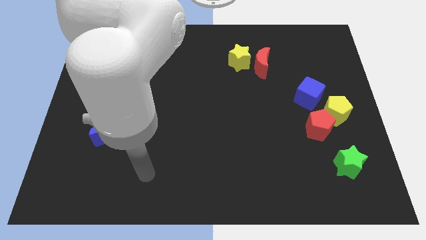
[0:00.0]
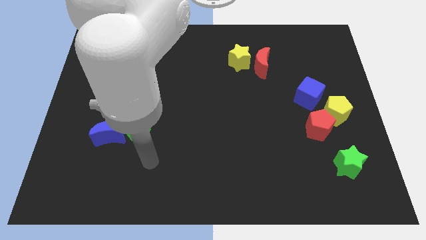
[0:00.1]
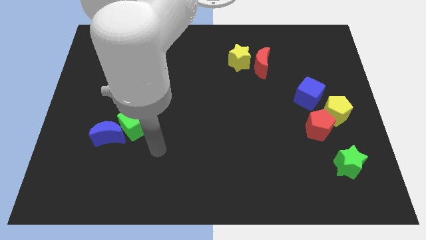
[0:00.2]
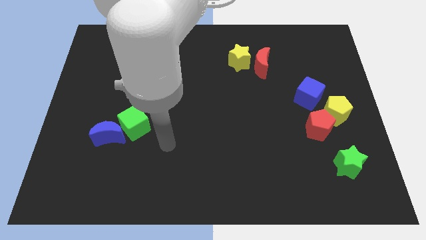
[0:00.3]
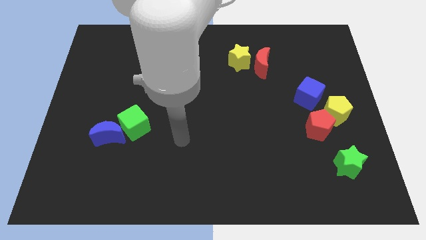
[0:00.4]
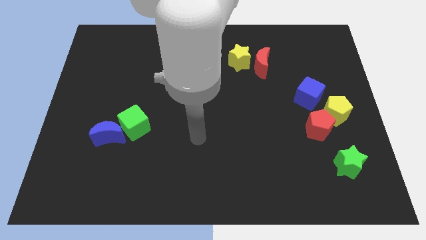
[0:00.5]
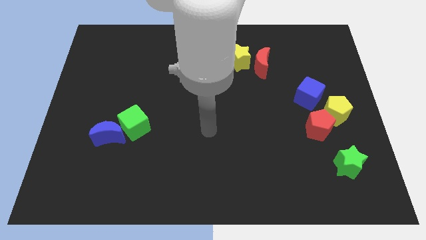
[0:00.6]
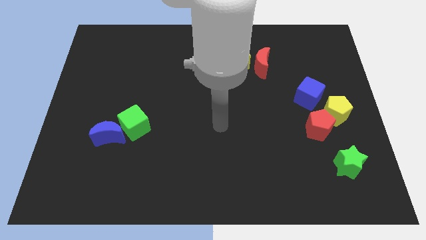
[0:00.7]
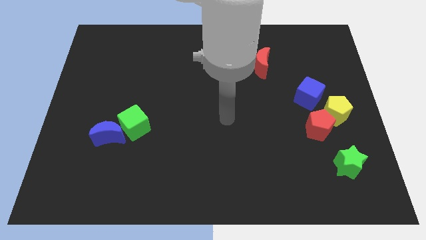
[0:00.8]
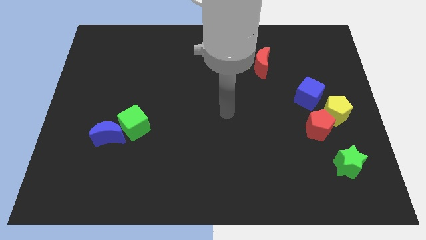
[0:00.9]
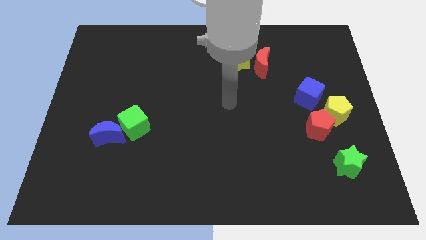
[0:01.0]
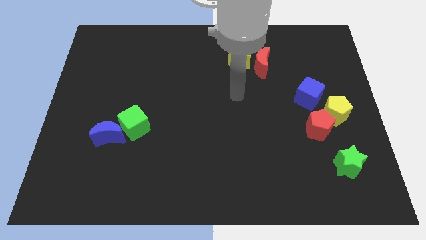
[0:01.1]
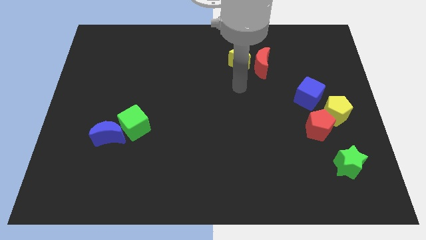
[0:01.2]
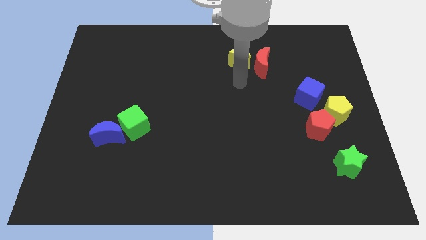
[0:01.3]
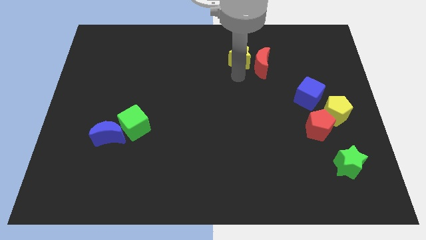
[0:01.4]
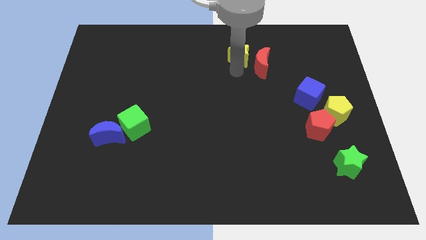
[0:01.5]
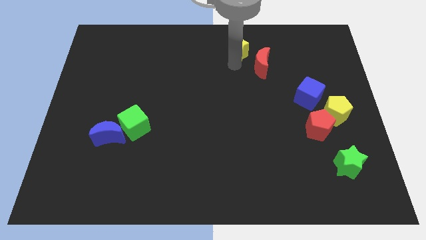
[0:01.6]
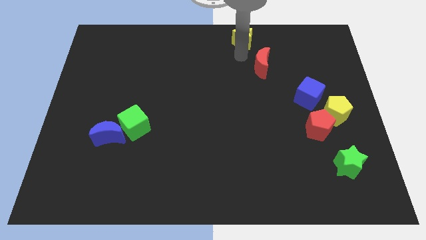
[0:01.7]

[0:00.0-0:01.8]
pull the red moon apart from the yellow star

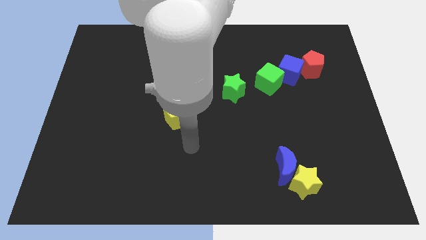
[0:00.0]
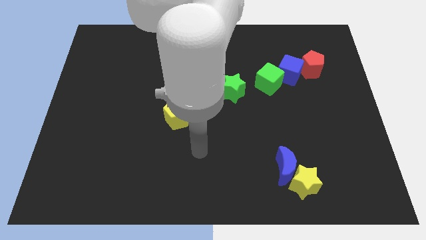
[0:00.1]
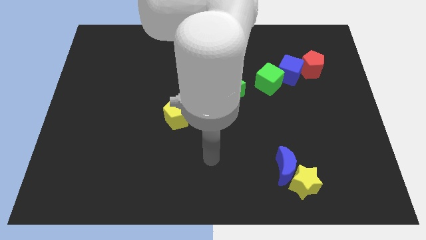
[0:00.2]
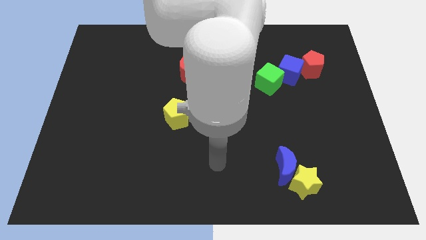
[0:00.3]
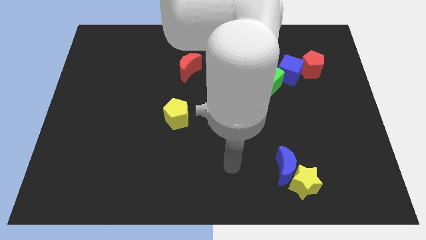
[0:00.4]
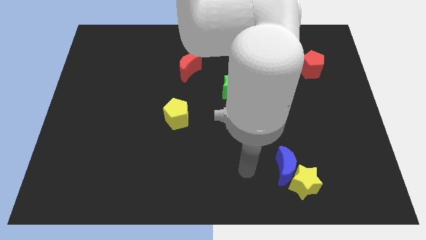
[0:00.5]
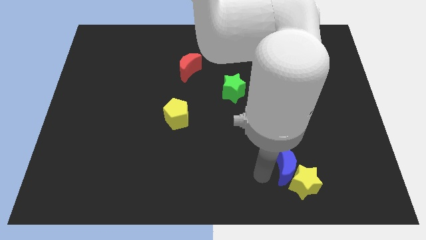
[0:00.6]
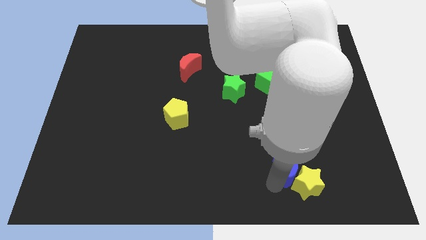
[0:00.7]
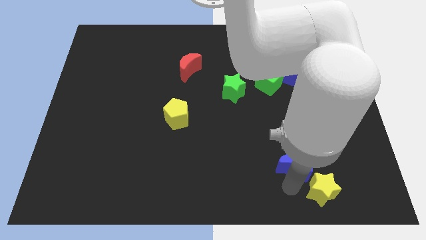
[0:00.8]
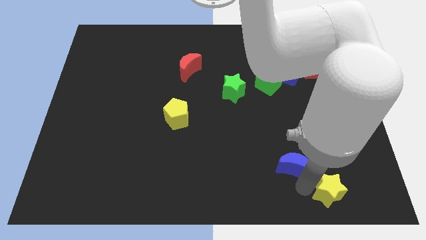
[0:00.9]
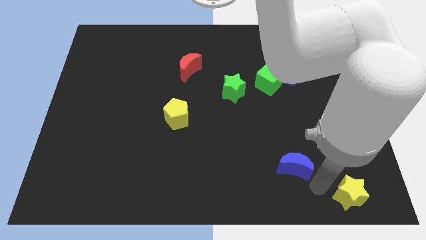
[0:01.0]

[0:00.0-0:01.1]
separate the blue moon from the yellow star

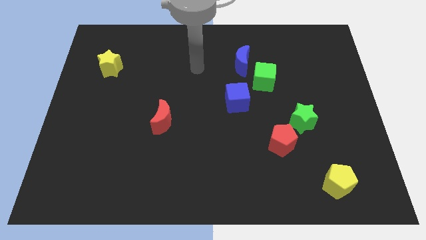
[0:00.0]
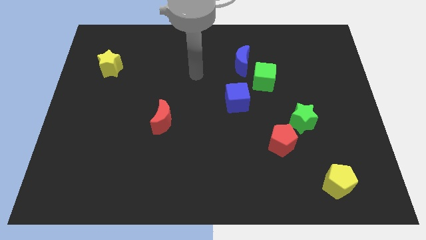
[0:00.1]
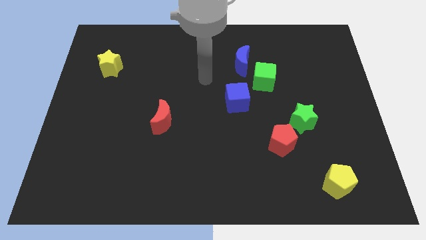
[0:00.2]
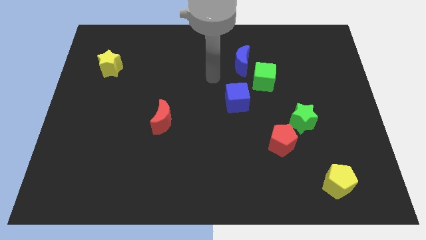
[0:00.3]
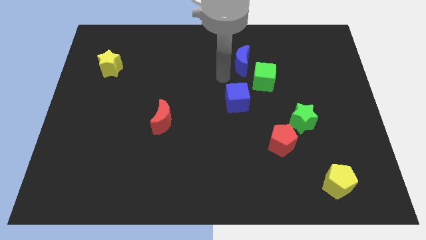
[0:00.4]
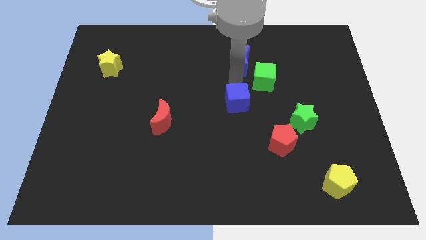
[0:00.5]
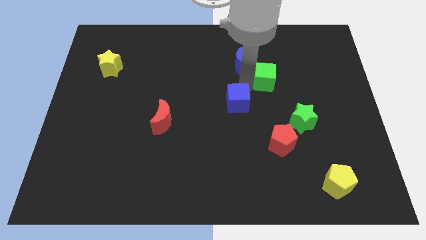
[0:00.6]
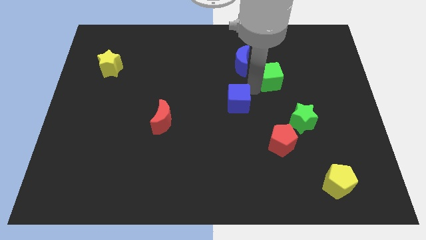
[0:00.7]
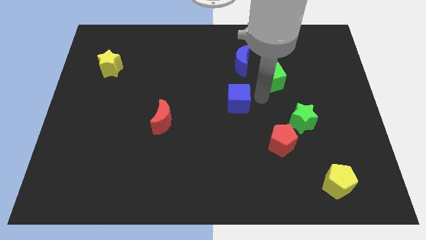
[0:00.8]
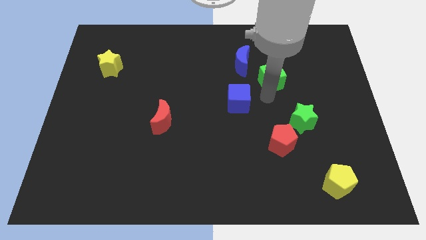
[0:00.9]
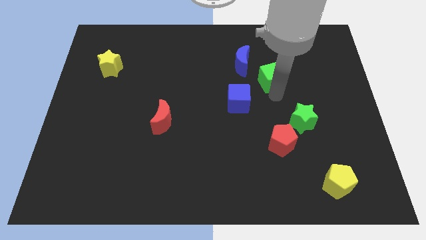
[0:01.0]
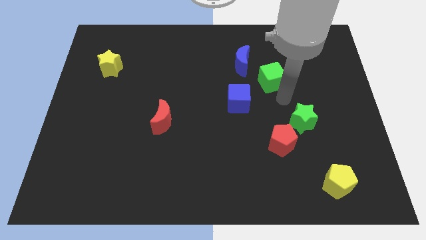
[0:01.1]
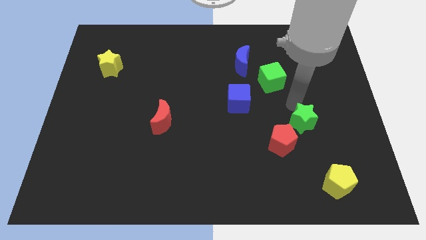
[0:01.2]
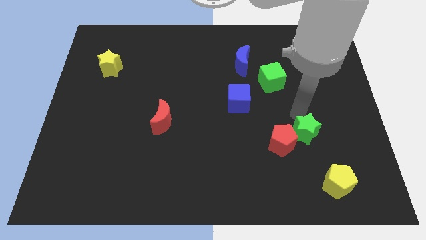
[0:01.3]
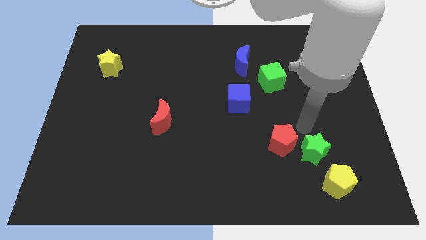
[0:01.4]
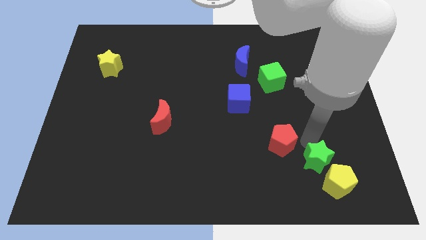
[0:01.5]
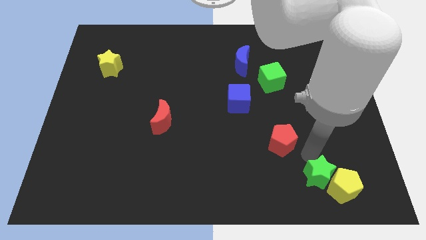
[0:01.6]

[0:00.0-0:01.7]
pull the red pentagon apart from the green star

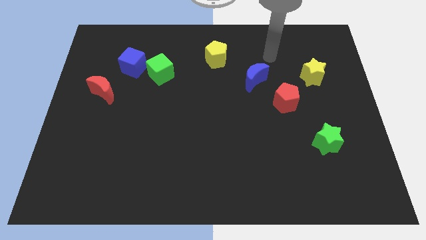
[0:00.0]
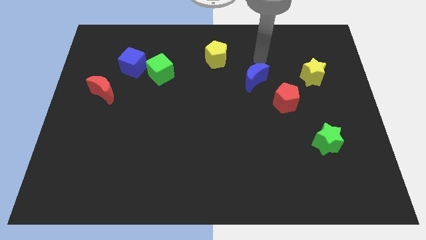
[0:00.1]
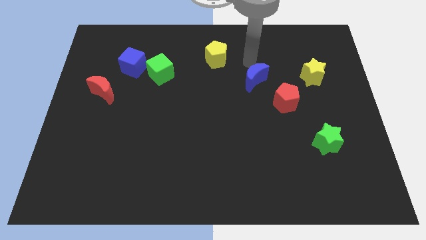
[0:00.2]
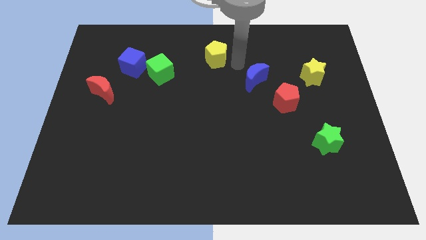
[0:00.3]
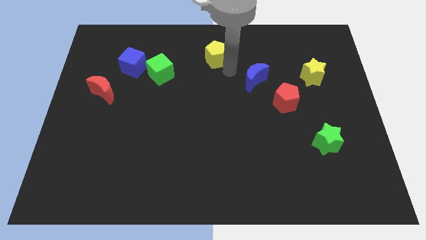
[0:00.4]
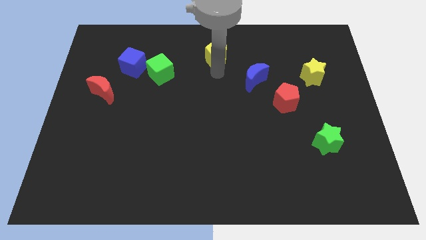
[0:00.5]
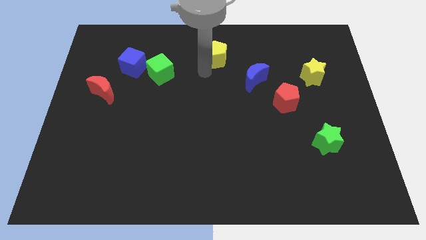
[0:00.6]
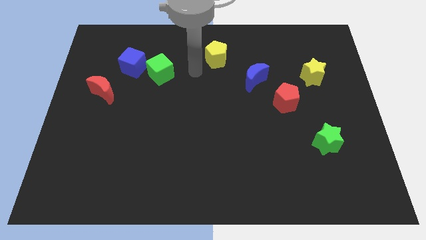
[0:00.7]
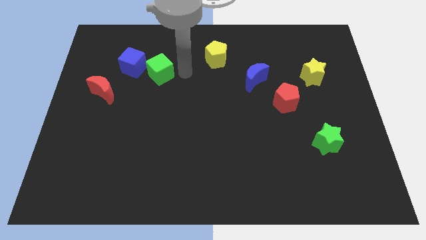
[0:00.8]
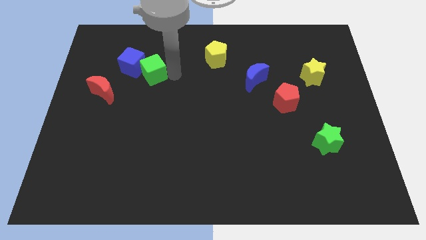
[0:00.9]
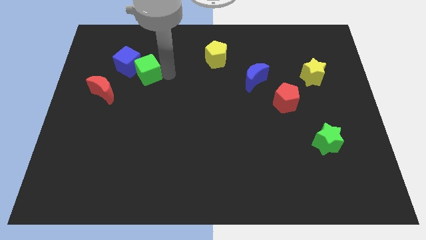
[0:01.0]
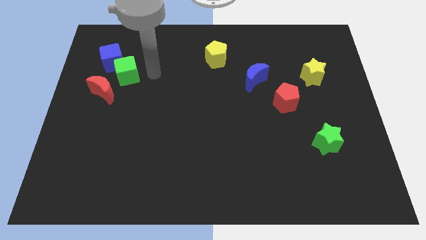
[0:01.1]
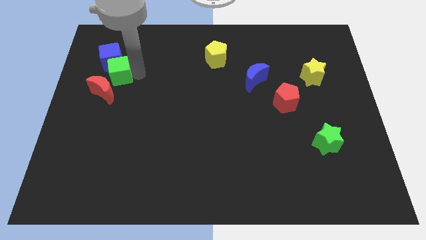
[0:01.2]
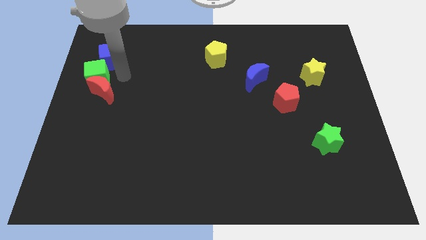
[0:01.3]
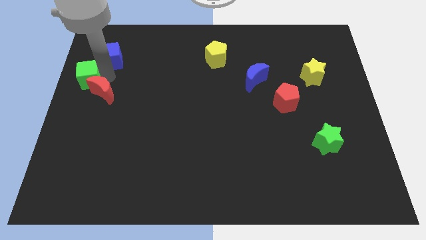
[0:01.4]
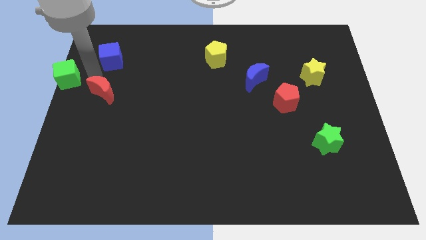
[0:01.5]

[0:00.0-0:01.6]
pull the blue cube apart from the green cube

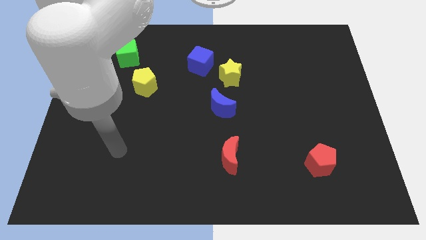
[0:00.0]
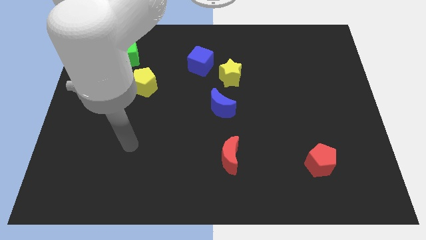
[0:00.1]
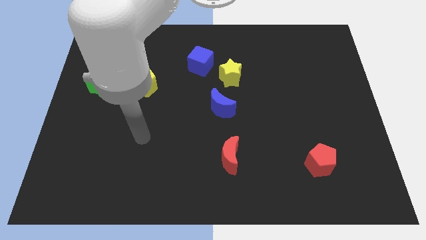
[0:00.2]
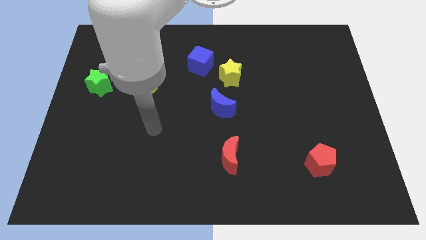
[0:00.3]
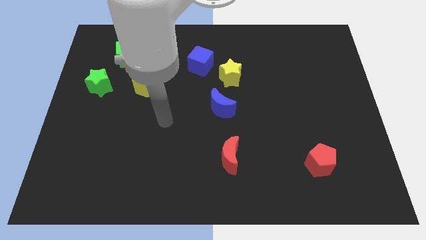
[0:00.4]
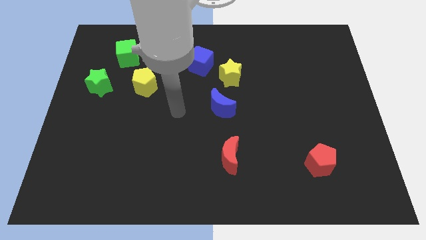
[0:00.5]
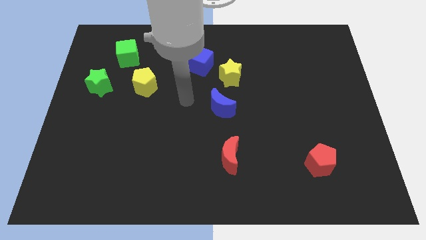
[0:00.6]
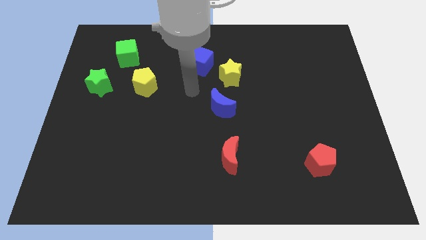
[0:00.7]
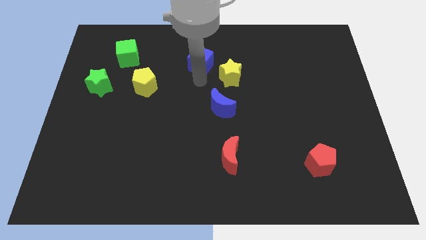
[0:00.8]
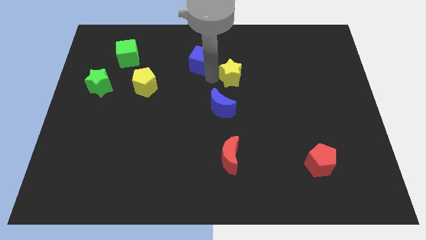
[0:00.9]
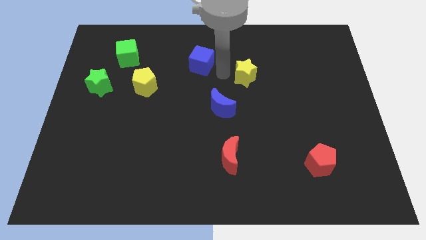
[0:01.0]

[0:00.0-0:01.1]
separate the blue cube from the yellow star

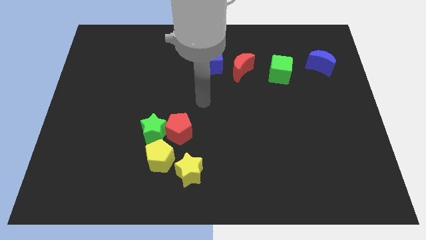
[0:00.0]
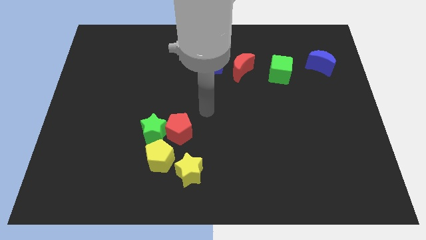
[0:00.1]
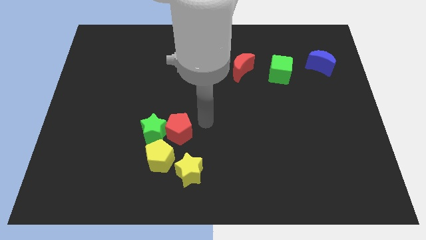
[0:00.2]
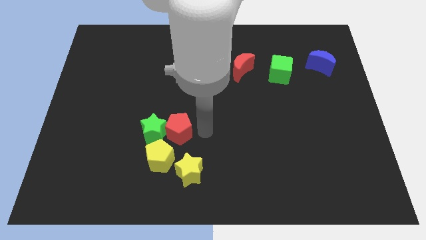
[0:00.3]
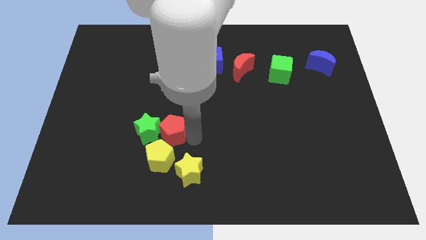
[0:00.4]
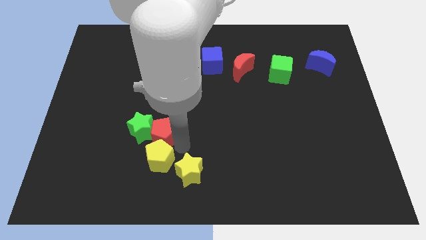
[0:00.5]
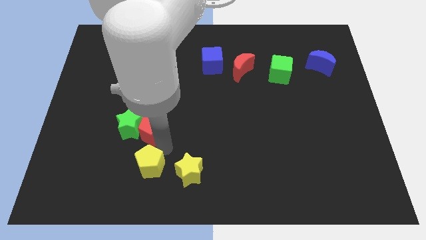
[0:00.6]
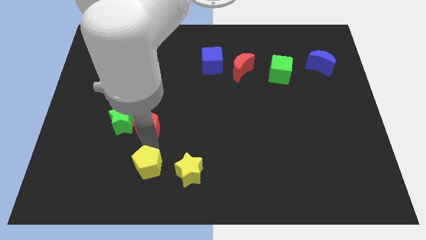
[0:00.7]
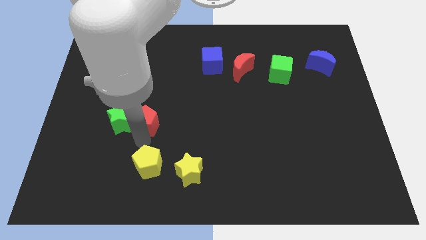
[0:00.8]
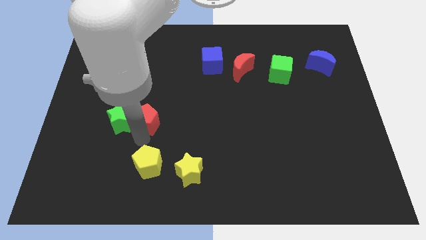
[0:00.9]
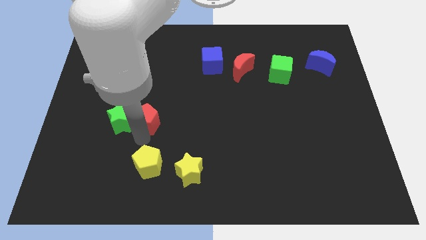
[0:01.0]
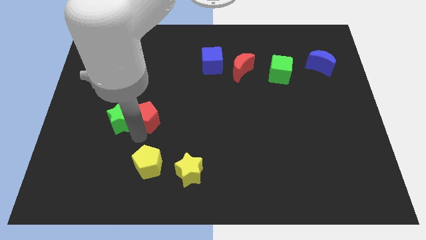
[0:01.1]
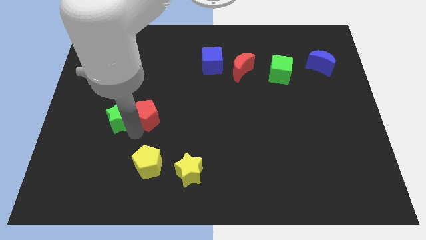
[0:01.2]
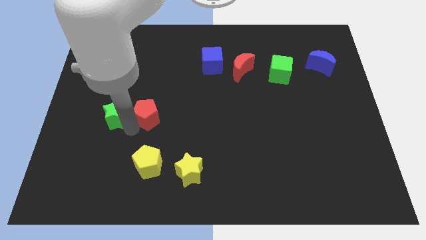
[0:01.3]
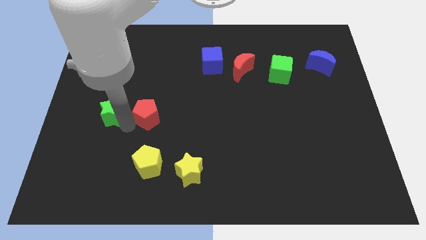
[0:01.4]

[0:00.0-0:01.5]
pull the green star apart from the red pentagon and yellow pentagon

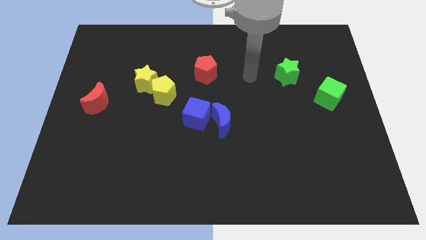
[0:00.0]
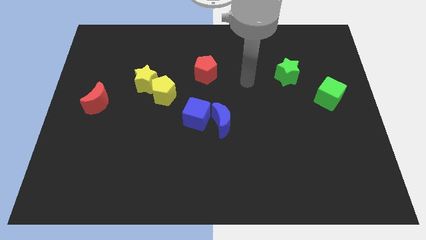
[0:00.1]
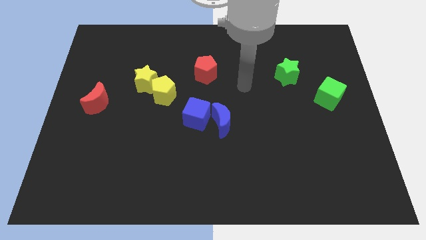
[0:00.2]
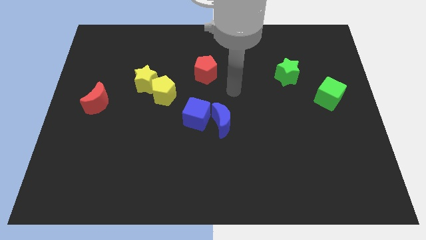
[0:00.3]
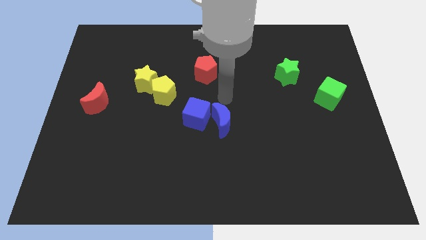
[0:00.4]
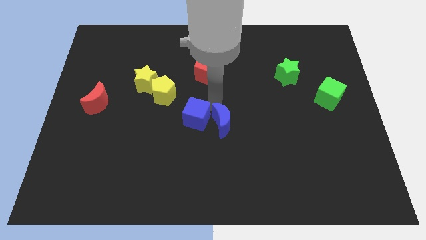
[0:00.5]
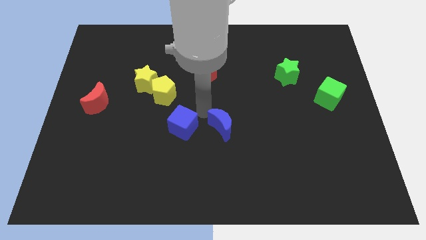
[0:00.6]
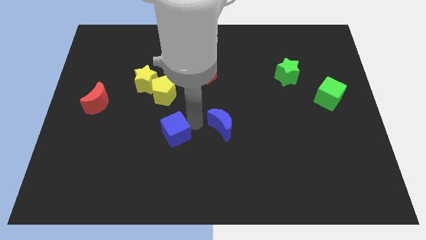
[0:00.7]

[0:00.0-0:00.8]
separate the blue moon from the blue cube
